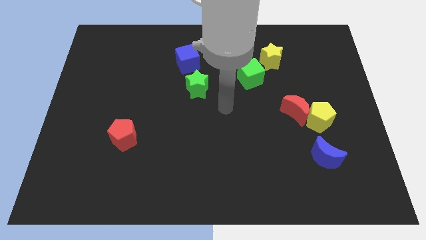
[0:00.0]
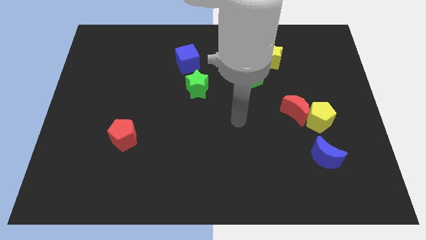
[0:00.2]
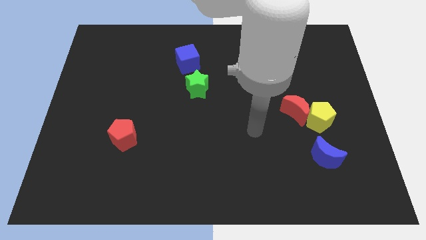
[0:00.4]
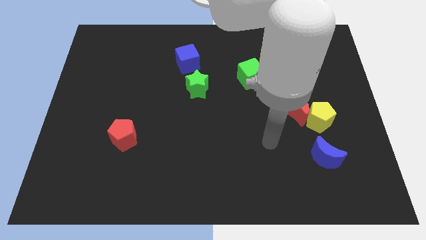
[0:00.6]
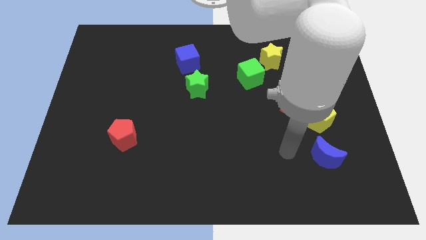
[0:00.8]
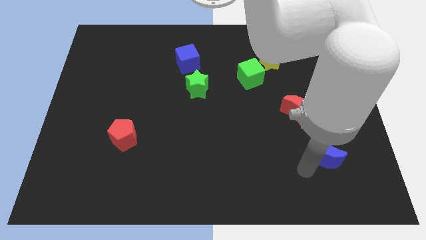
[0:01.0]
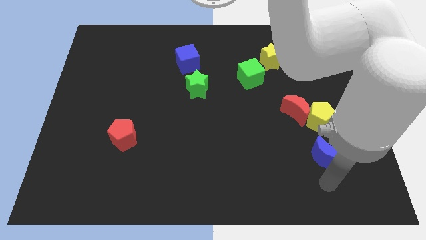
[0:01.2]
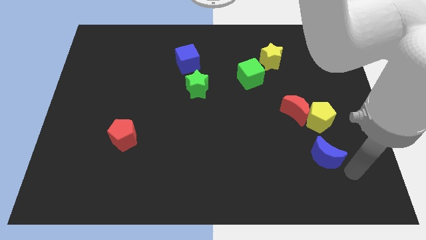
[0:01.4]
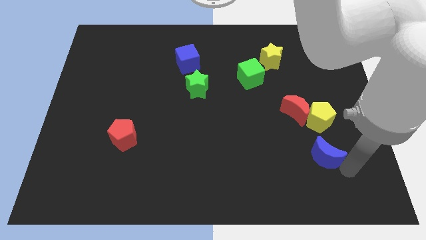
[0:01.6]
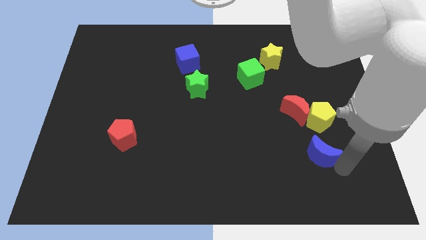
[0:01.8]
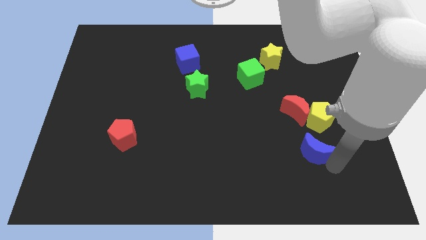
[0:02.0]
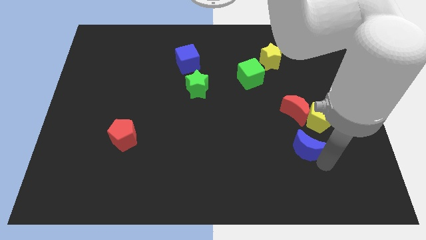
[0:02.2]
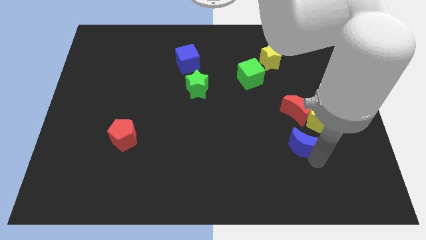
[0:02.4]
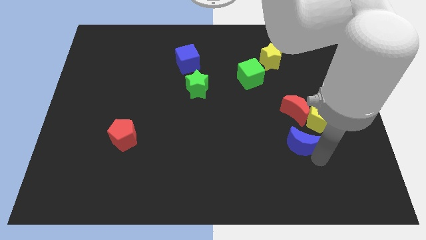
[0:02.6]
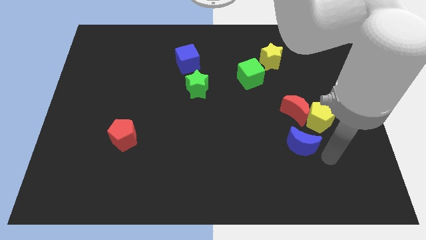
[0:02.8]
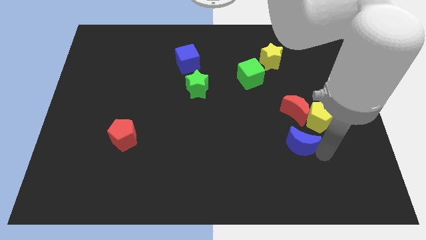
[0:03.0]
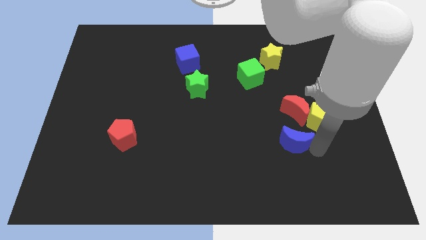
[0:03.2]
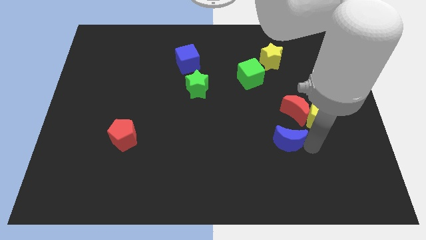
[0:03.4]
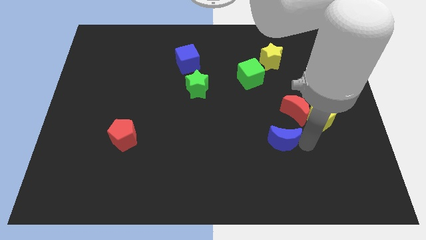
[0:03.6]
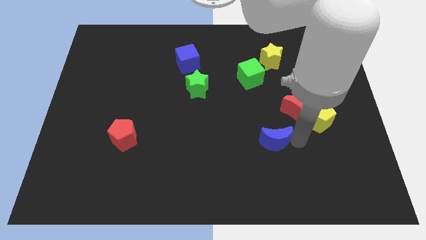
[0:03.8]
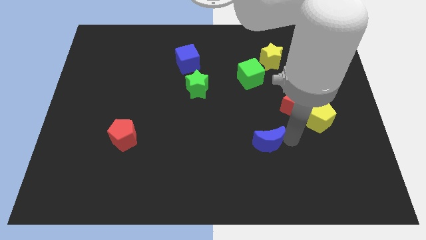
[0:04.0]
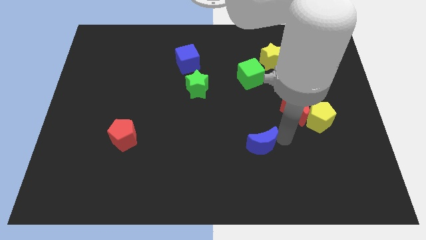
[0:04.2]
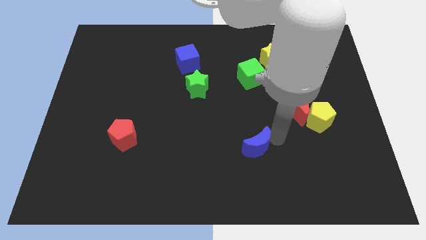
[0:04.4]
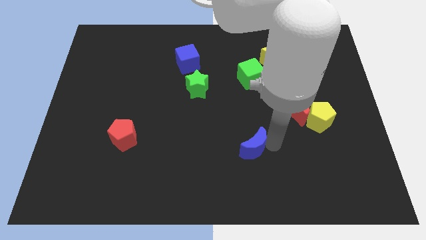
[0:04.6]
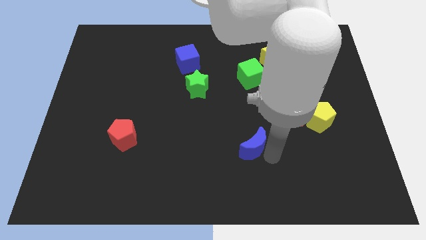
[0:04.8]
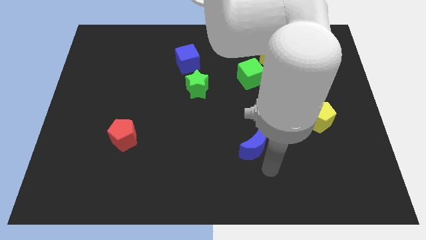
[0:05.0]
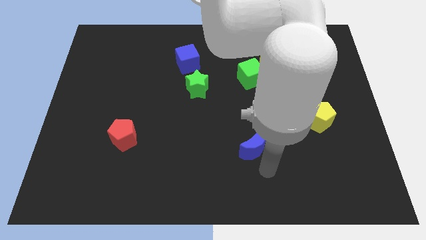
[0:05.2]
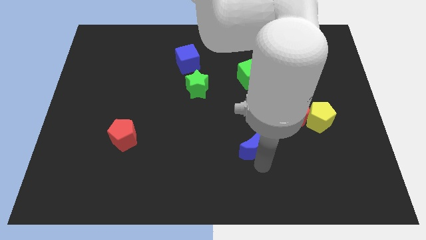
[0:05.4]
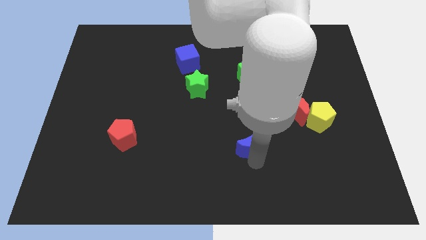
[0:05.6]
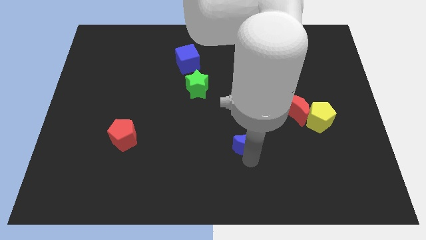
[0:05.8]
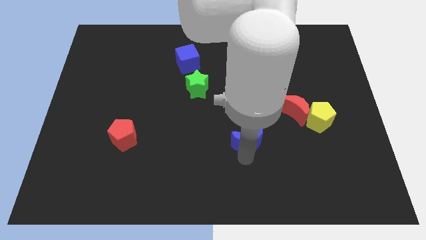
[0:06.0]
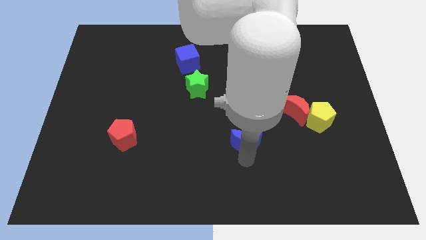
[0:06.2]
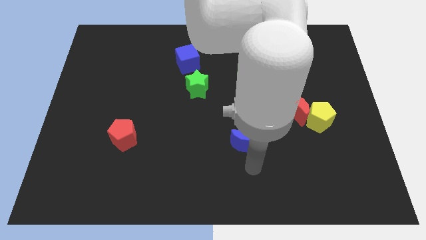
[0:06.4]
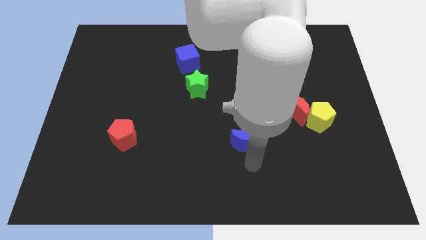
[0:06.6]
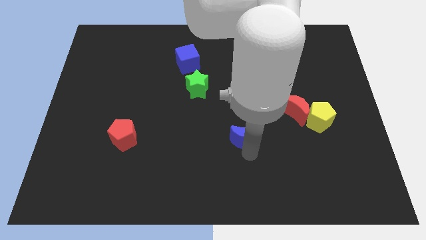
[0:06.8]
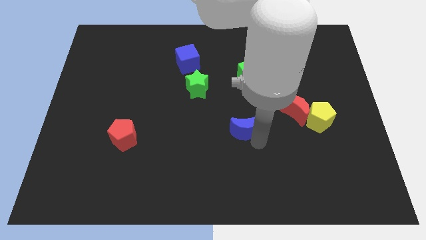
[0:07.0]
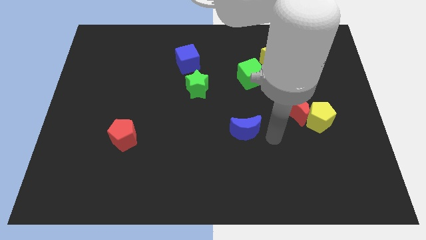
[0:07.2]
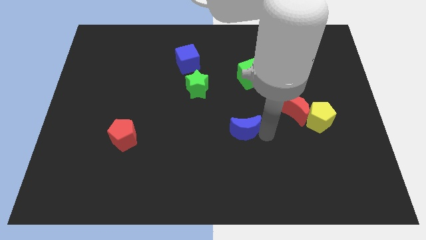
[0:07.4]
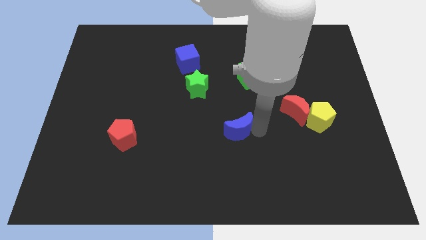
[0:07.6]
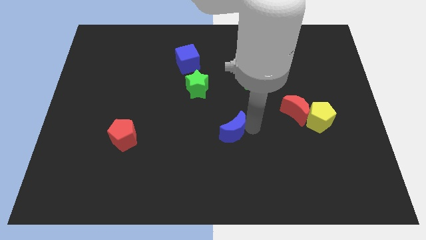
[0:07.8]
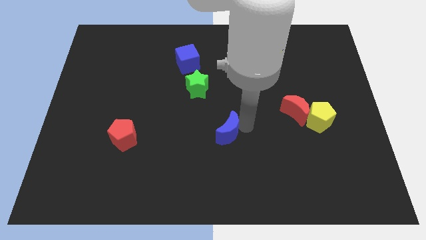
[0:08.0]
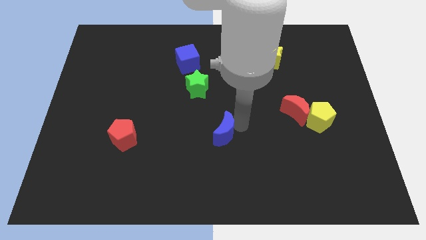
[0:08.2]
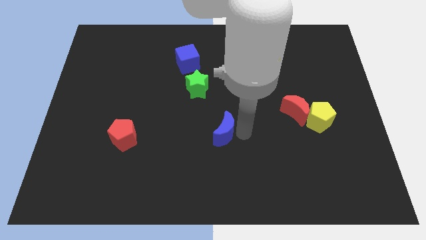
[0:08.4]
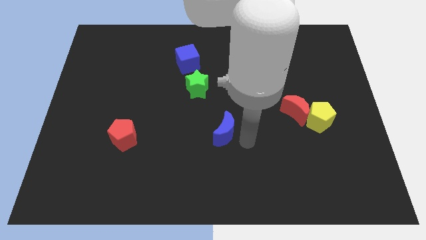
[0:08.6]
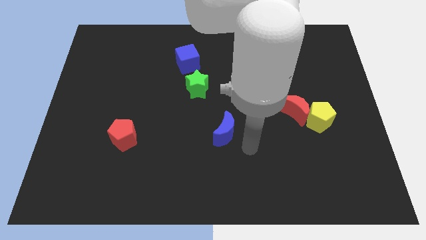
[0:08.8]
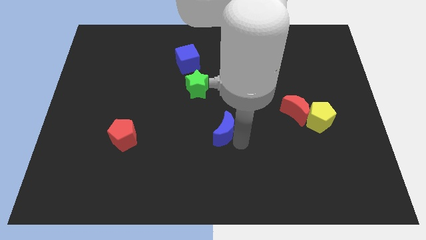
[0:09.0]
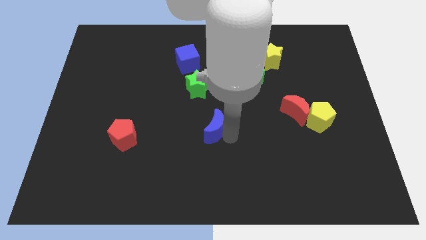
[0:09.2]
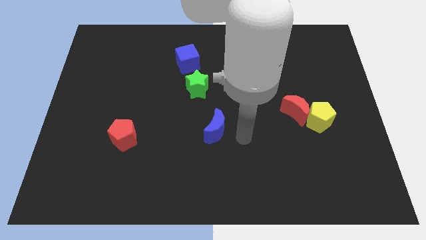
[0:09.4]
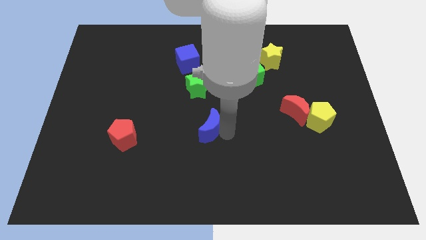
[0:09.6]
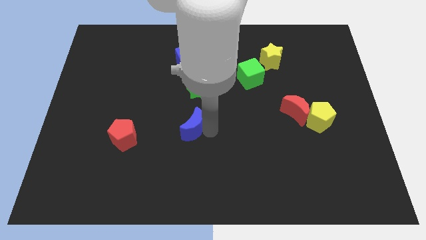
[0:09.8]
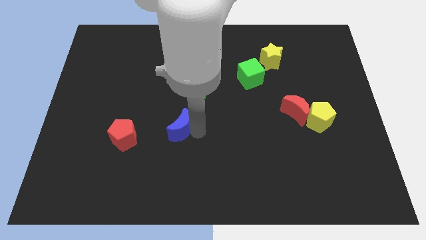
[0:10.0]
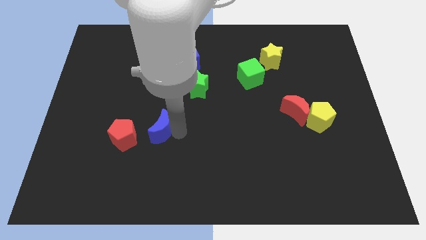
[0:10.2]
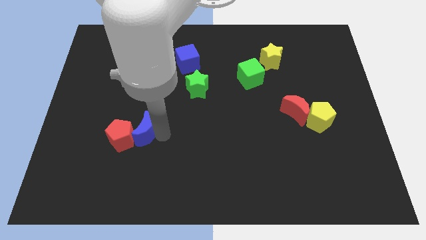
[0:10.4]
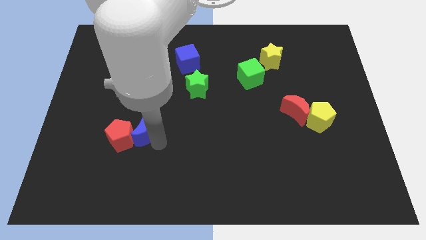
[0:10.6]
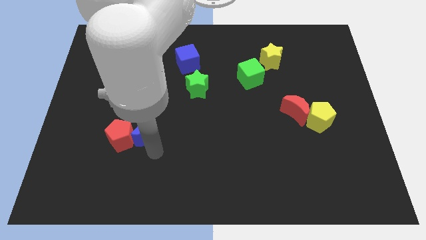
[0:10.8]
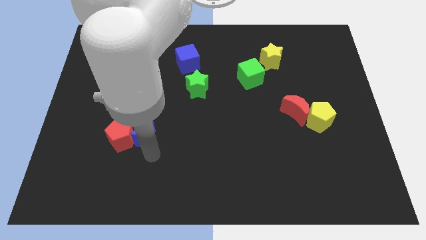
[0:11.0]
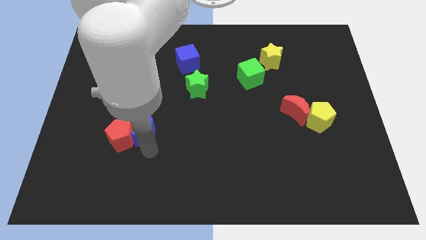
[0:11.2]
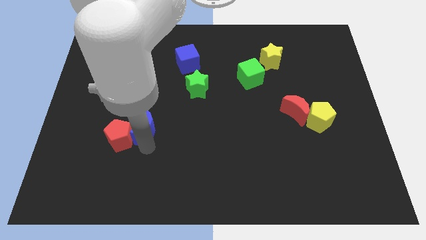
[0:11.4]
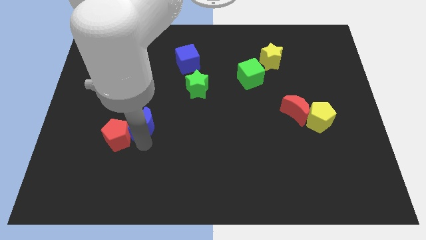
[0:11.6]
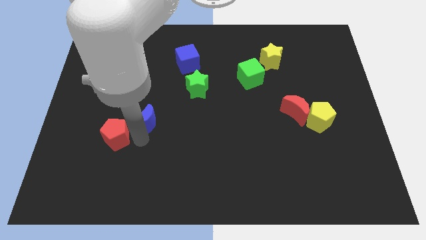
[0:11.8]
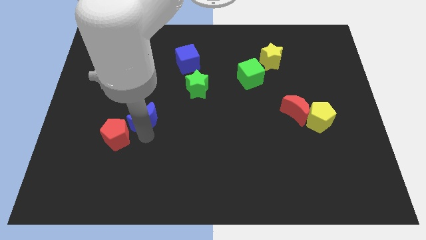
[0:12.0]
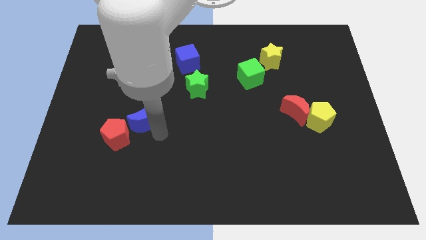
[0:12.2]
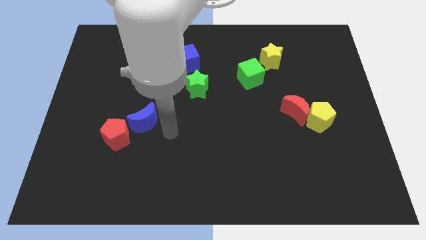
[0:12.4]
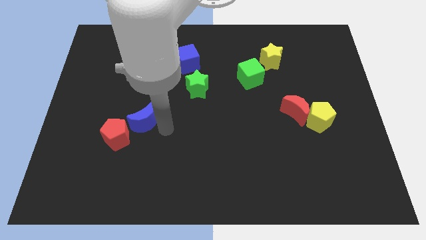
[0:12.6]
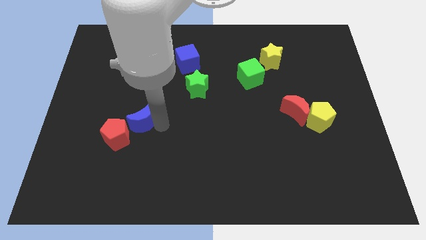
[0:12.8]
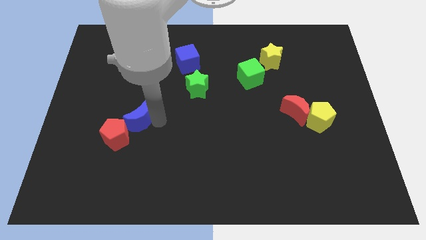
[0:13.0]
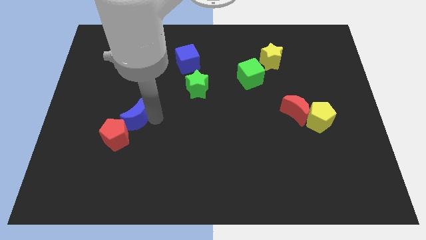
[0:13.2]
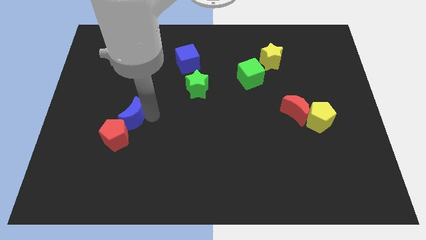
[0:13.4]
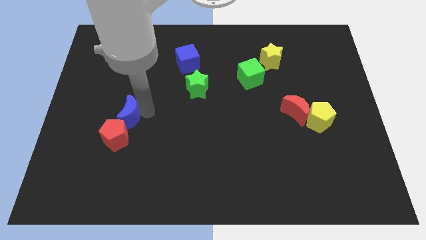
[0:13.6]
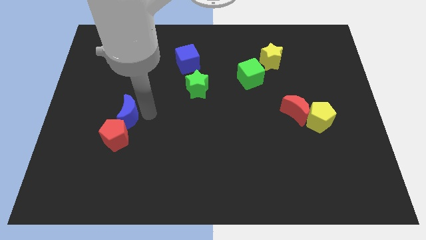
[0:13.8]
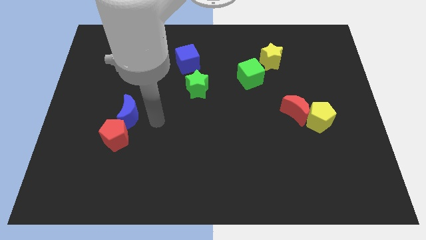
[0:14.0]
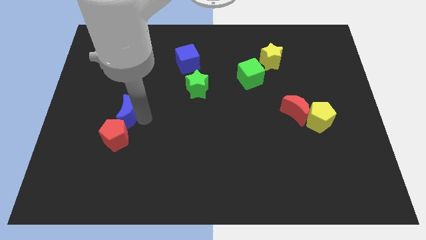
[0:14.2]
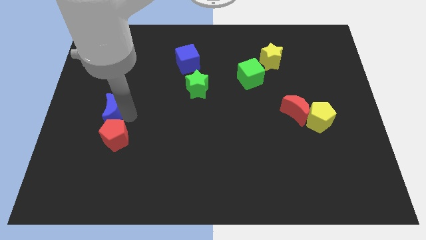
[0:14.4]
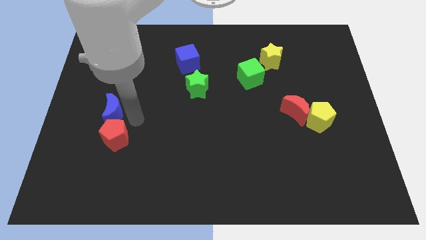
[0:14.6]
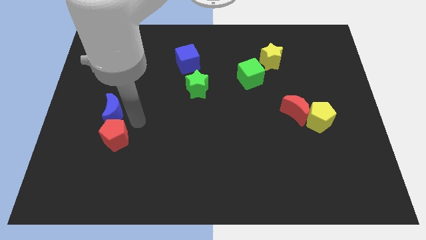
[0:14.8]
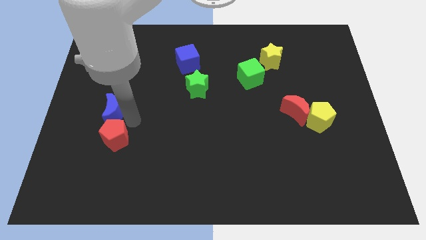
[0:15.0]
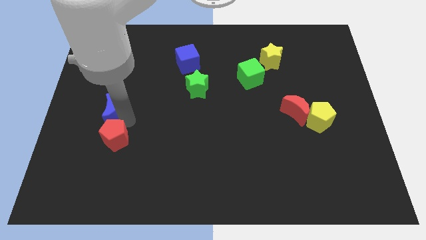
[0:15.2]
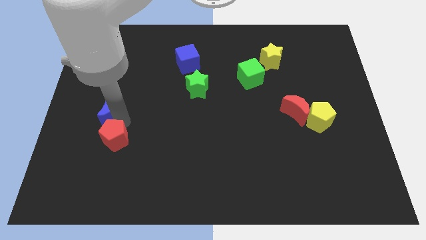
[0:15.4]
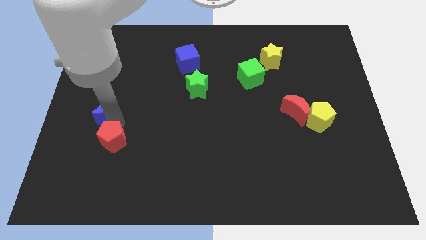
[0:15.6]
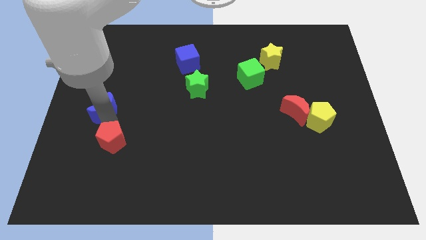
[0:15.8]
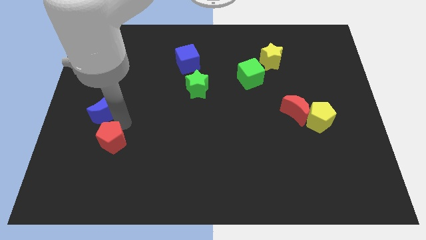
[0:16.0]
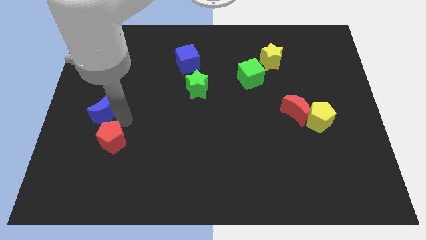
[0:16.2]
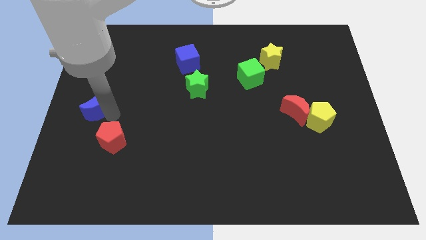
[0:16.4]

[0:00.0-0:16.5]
push the blue moon to the center left

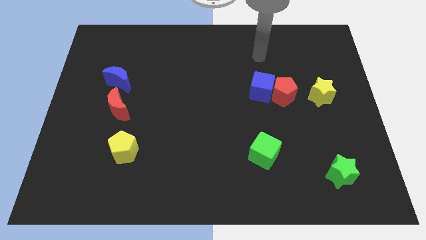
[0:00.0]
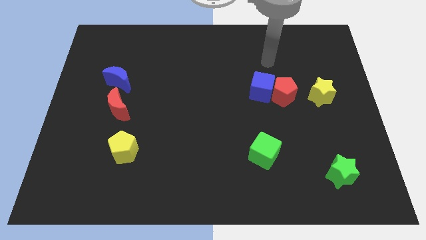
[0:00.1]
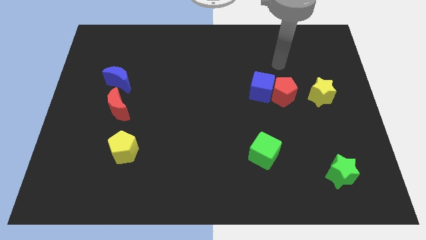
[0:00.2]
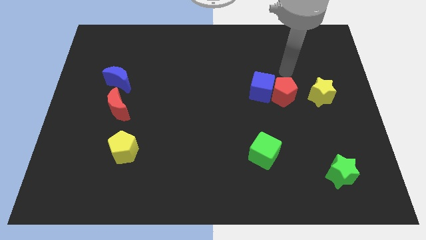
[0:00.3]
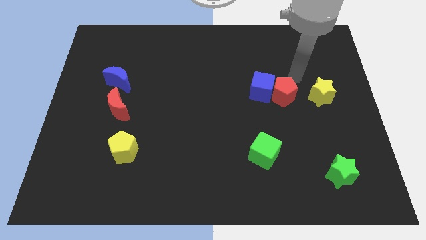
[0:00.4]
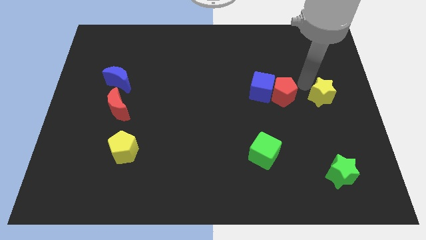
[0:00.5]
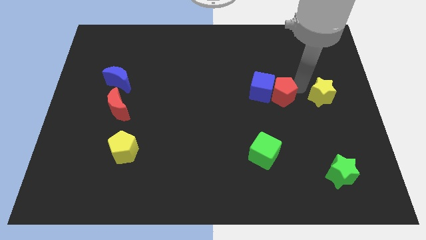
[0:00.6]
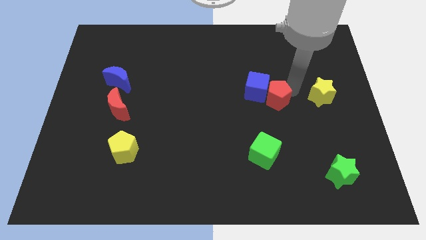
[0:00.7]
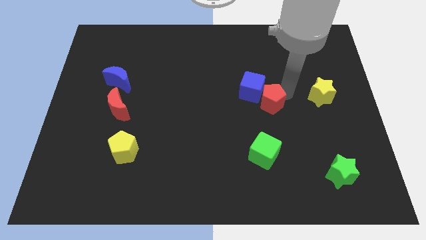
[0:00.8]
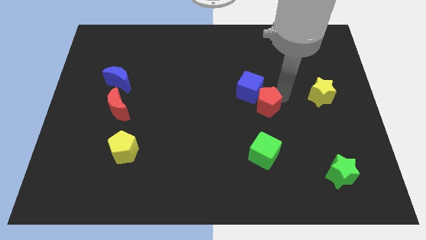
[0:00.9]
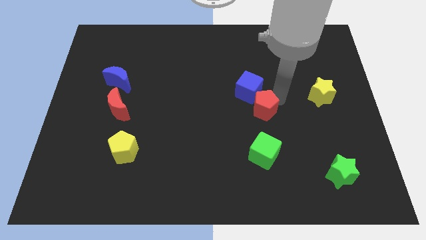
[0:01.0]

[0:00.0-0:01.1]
put the red pentagon to the center
